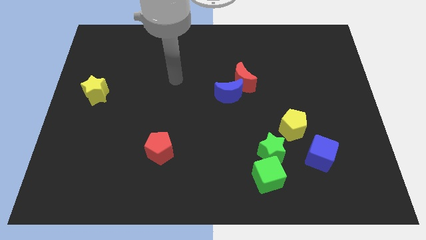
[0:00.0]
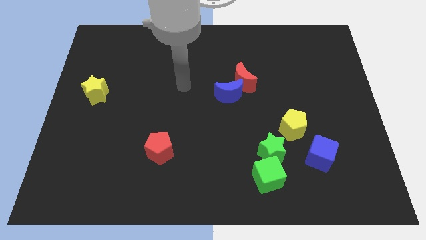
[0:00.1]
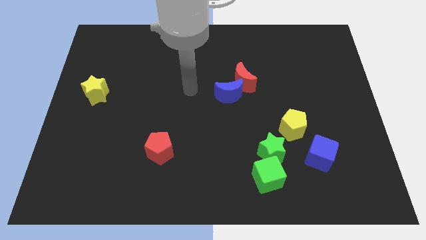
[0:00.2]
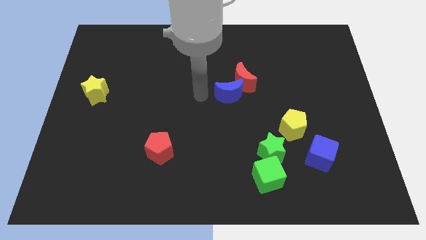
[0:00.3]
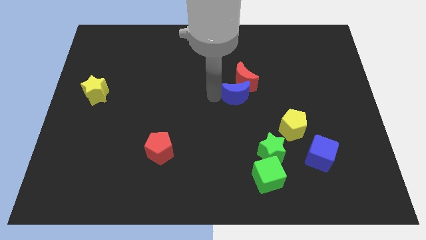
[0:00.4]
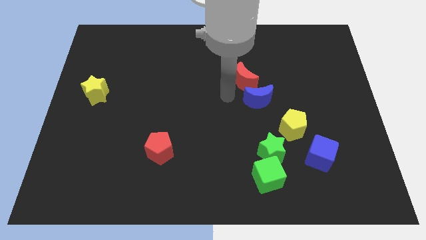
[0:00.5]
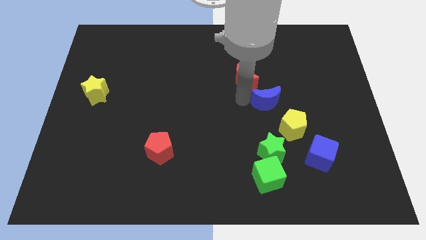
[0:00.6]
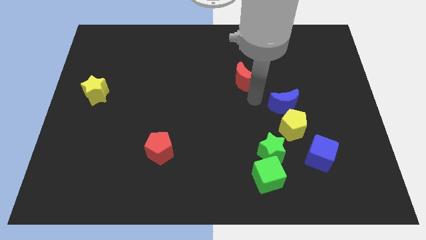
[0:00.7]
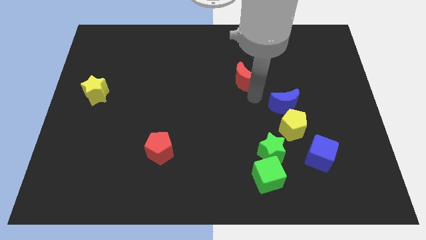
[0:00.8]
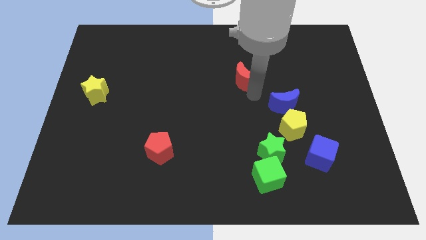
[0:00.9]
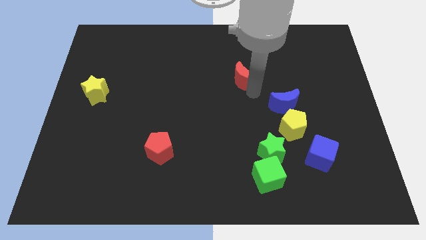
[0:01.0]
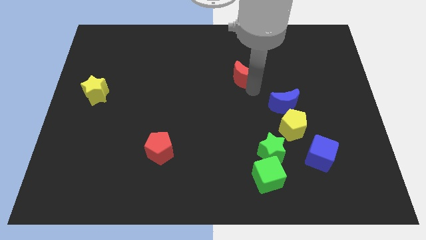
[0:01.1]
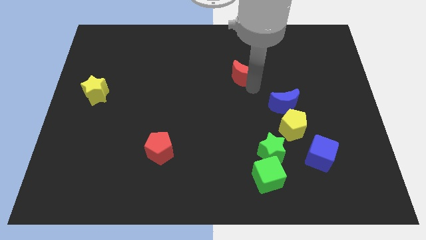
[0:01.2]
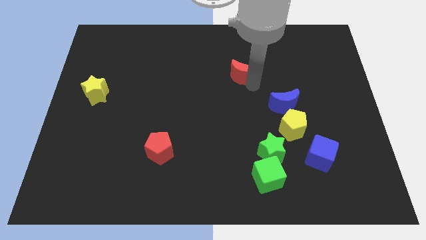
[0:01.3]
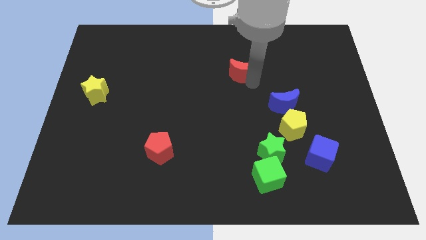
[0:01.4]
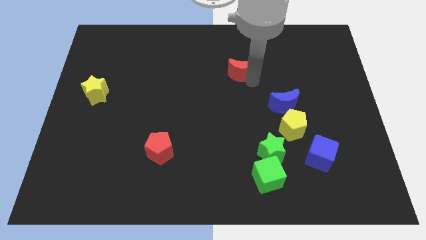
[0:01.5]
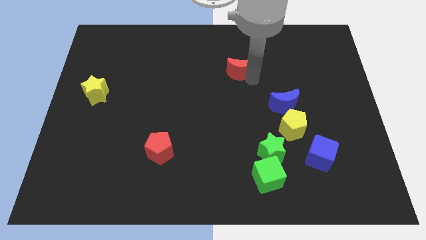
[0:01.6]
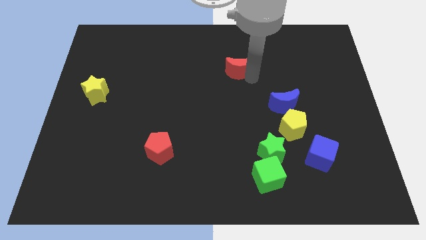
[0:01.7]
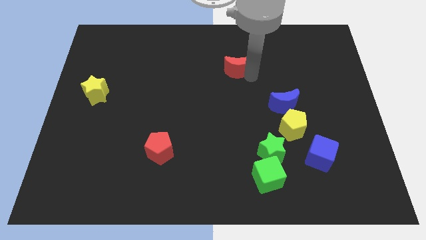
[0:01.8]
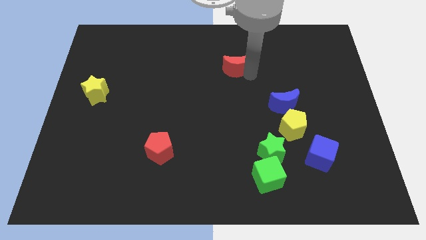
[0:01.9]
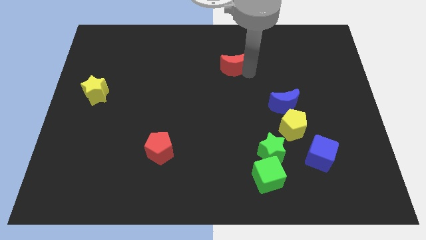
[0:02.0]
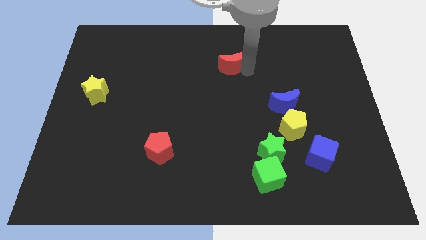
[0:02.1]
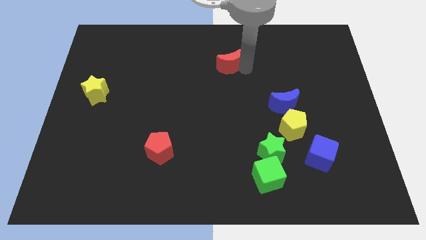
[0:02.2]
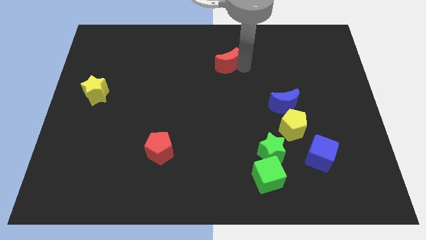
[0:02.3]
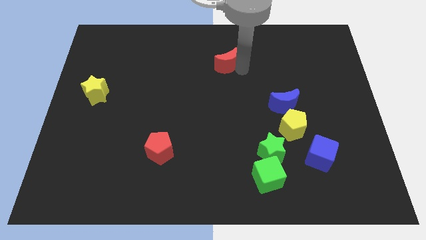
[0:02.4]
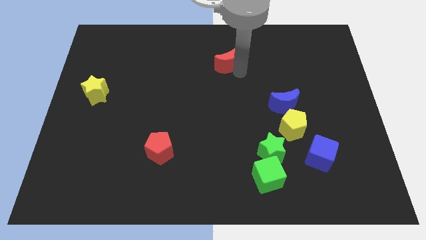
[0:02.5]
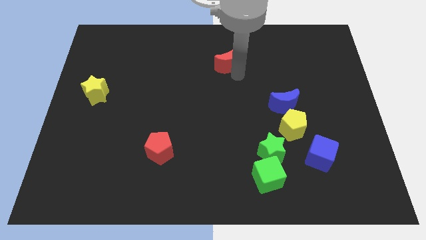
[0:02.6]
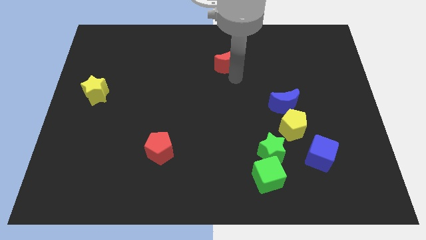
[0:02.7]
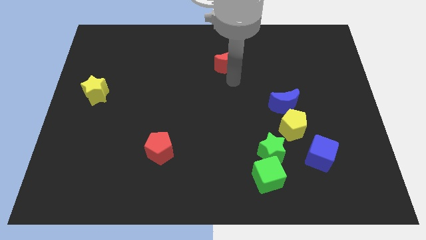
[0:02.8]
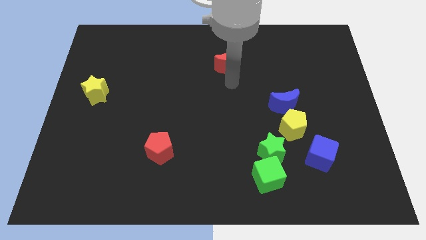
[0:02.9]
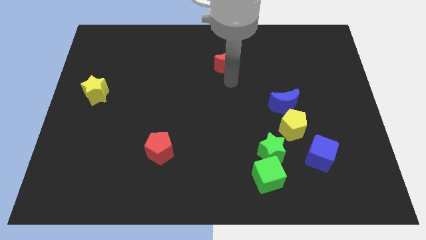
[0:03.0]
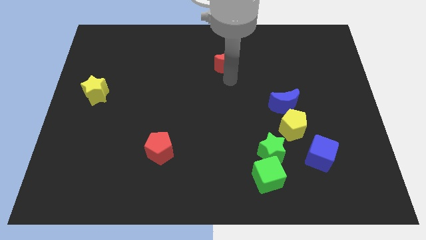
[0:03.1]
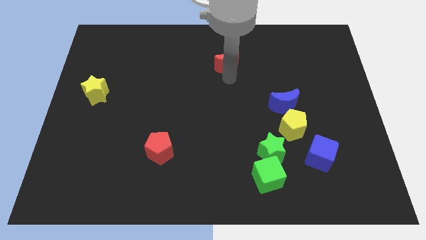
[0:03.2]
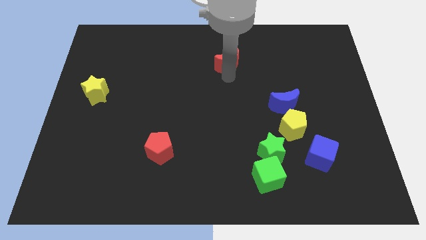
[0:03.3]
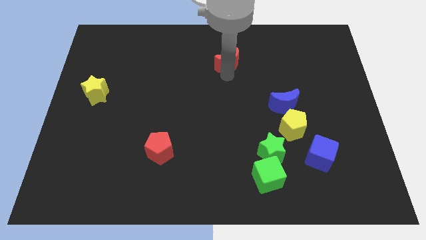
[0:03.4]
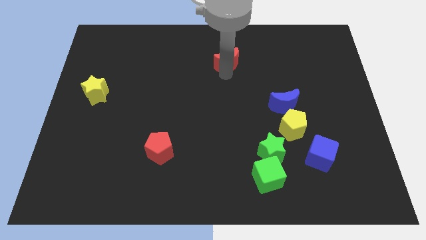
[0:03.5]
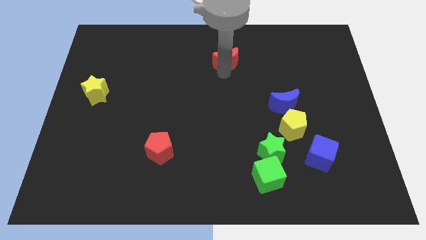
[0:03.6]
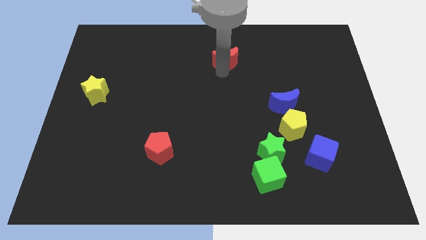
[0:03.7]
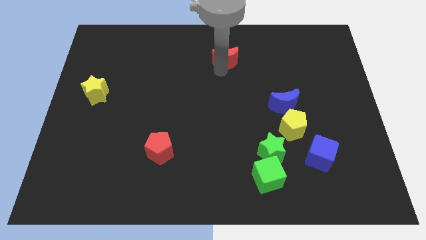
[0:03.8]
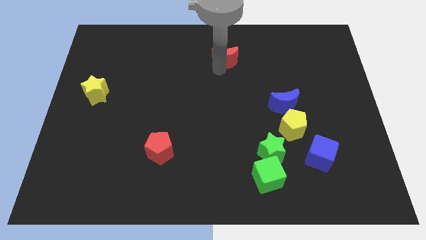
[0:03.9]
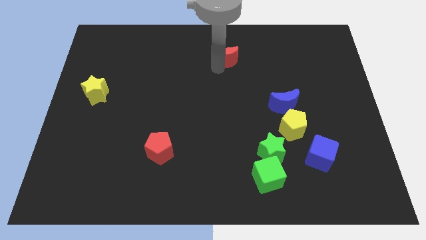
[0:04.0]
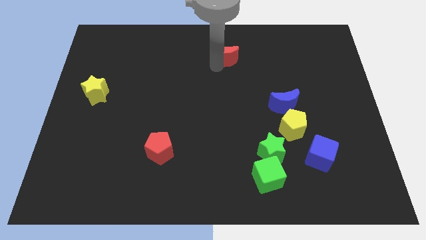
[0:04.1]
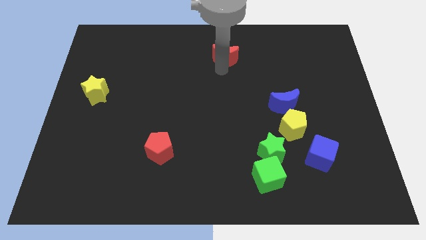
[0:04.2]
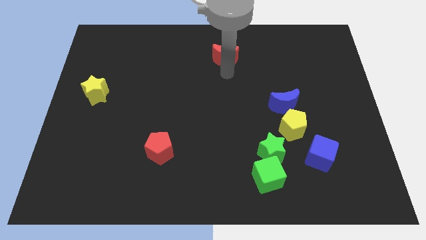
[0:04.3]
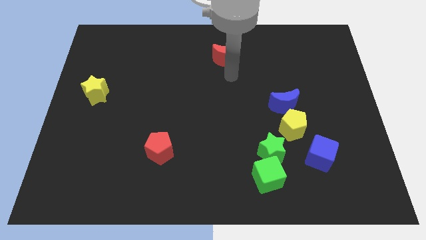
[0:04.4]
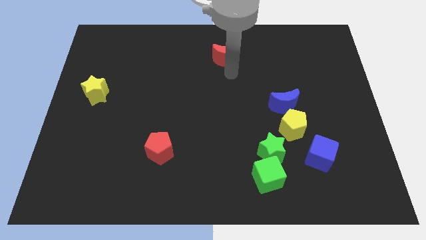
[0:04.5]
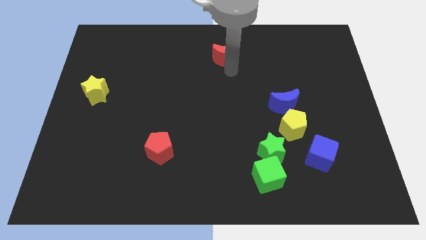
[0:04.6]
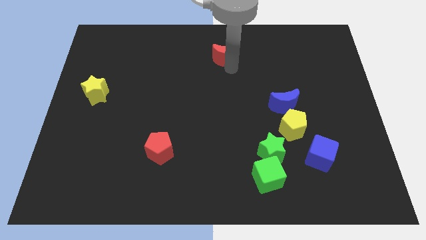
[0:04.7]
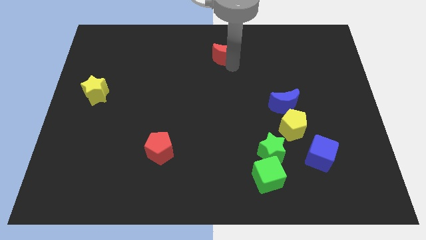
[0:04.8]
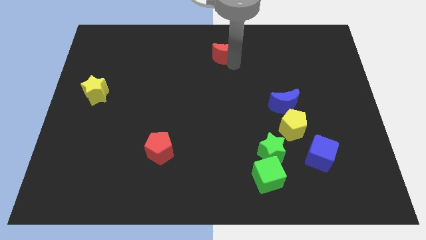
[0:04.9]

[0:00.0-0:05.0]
slide the red moon to the top

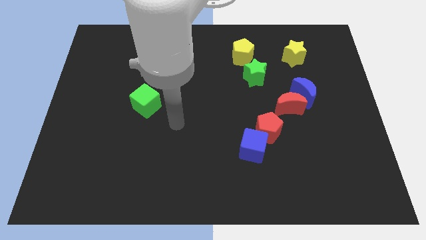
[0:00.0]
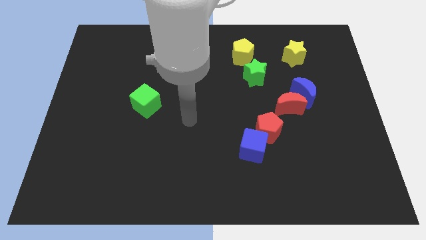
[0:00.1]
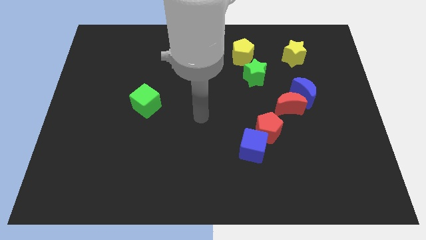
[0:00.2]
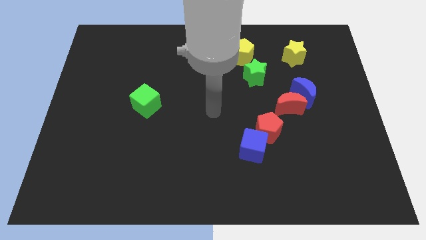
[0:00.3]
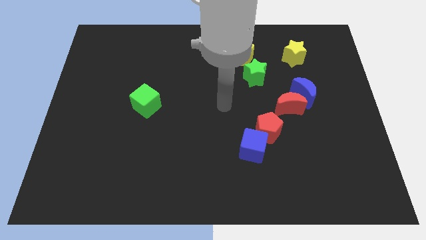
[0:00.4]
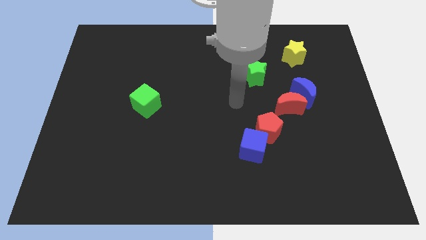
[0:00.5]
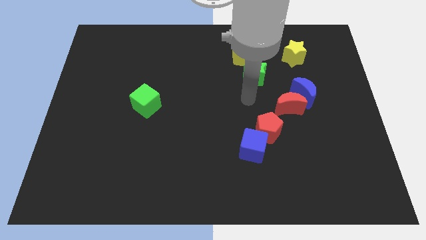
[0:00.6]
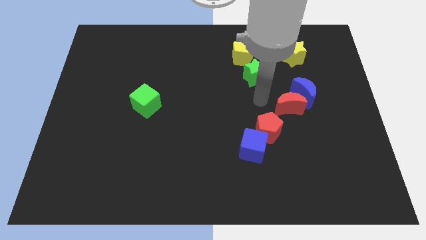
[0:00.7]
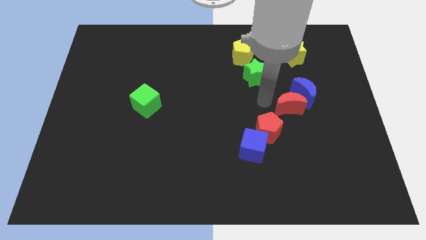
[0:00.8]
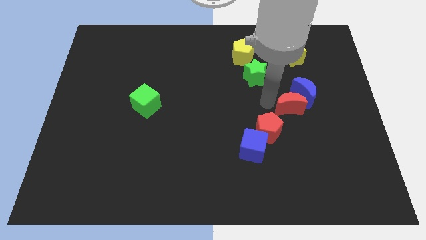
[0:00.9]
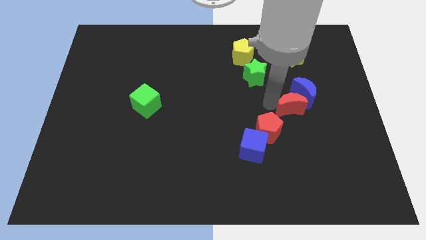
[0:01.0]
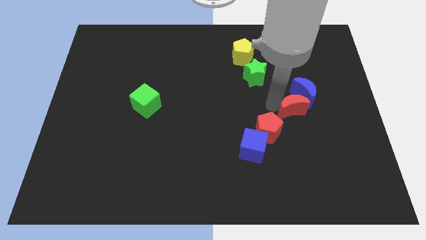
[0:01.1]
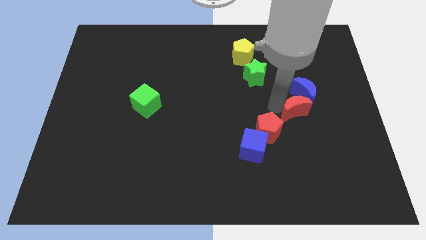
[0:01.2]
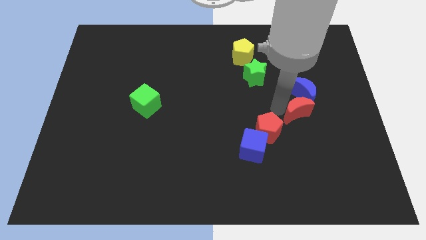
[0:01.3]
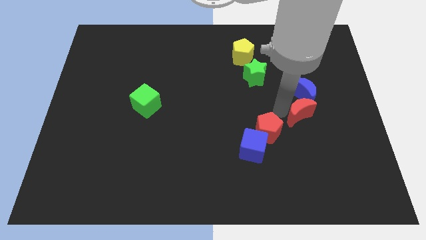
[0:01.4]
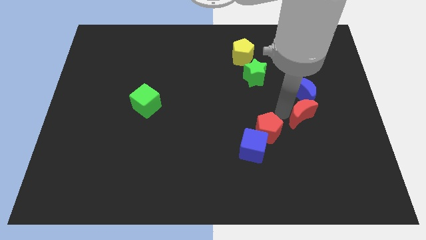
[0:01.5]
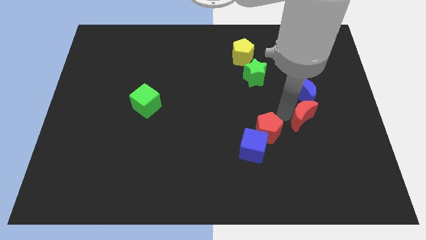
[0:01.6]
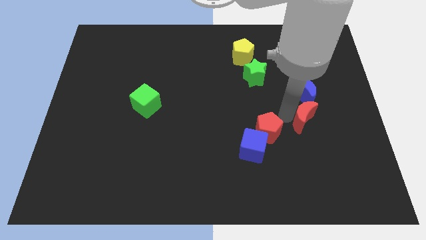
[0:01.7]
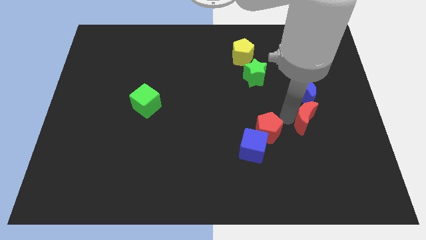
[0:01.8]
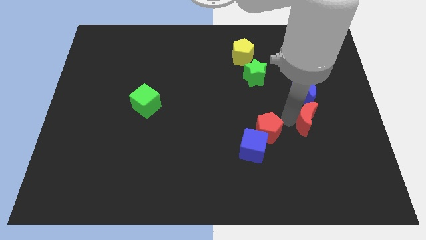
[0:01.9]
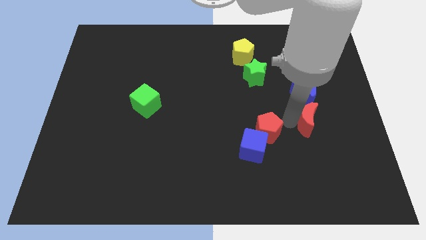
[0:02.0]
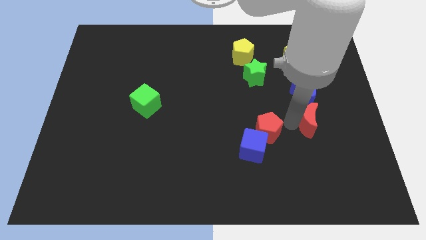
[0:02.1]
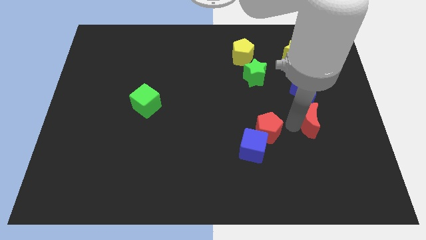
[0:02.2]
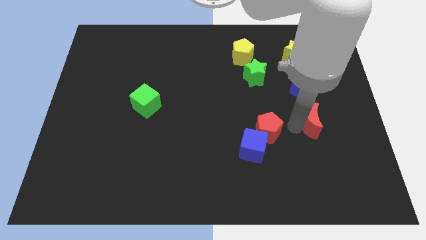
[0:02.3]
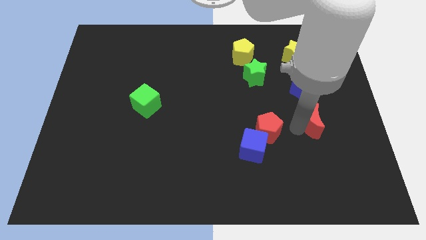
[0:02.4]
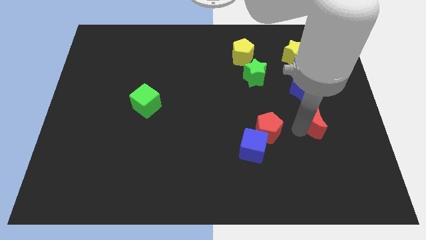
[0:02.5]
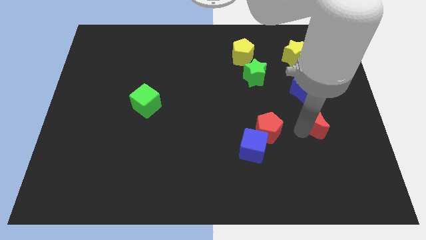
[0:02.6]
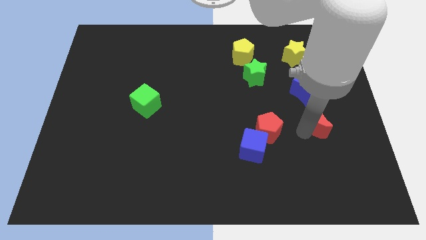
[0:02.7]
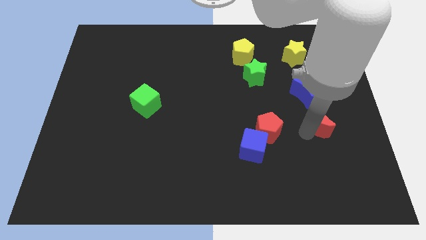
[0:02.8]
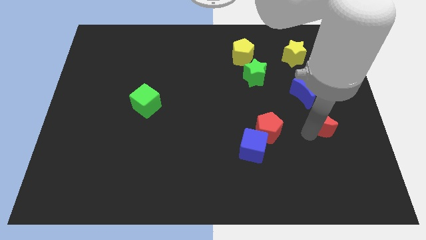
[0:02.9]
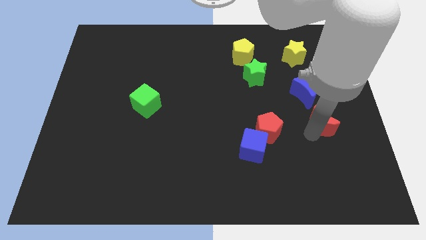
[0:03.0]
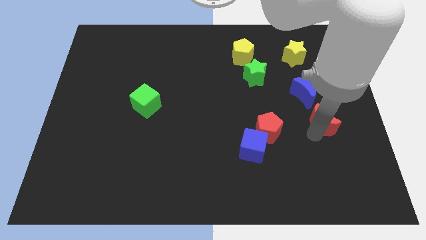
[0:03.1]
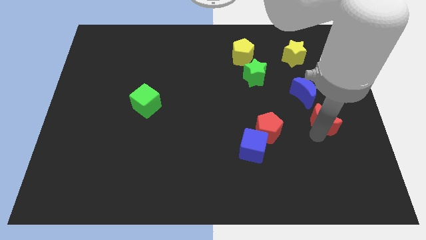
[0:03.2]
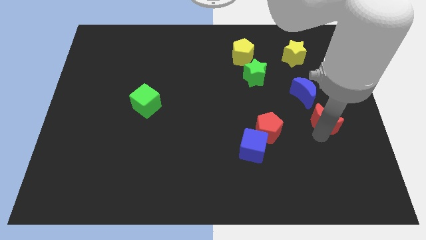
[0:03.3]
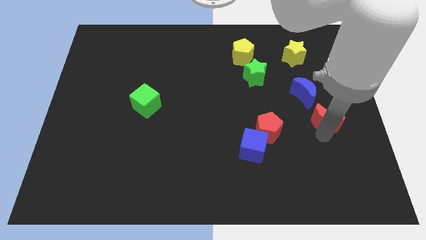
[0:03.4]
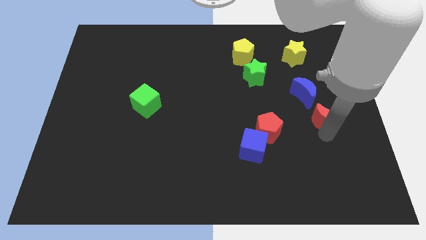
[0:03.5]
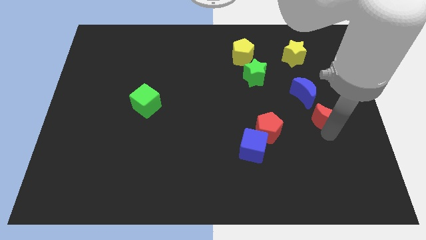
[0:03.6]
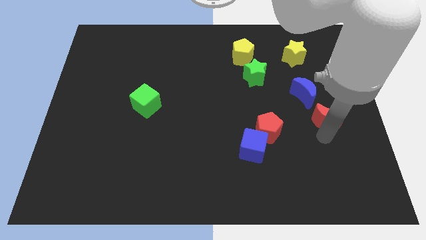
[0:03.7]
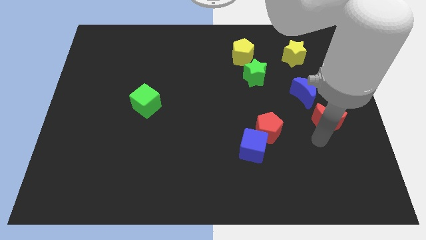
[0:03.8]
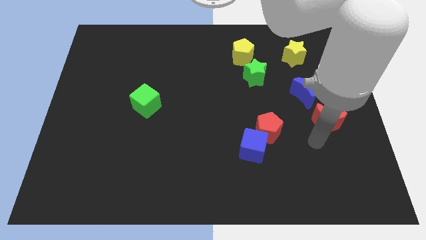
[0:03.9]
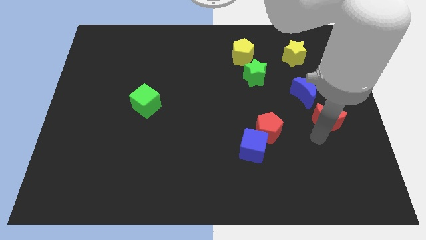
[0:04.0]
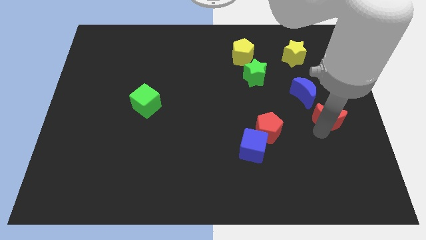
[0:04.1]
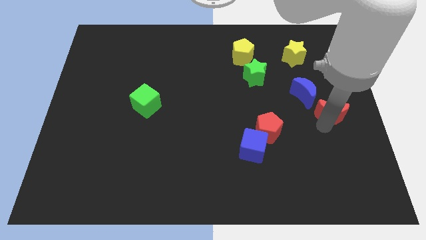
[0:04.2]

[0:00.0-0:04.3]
move the red moon to the right side of the board
